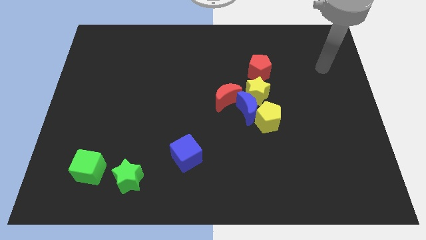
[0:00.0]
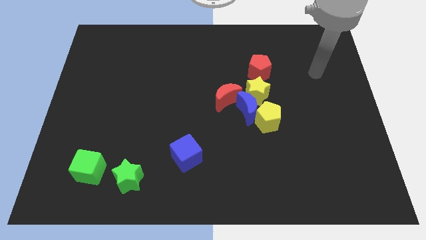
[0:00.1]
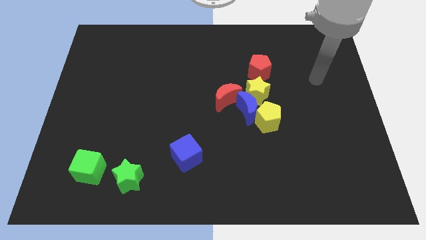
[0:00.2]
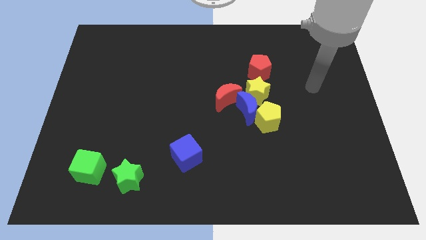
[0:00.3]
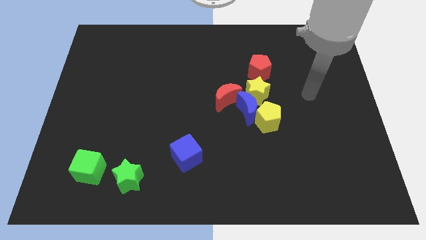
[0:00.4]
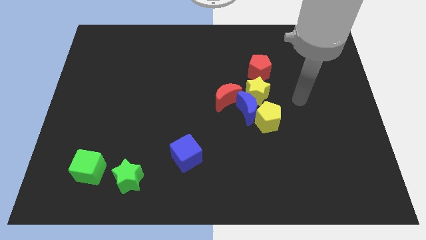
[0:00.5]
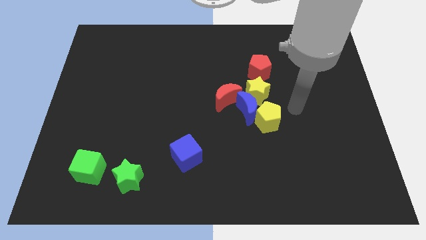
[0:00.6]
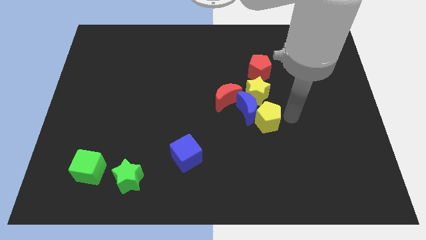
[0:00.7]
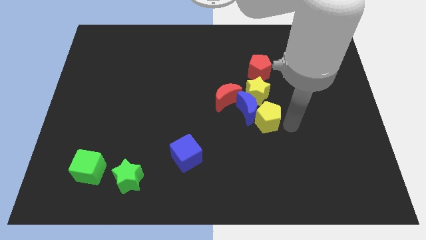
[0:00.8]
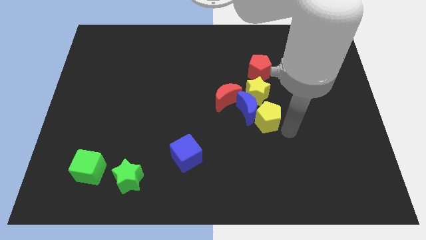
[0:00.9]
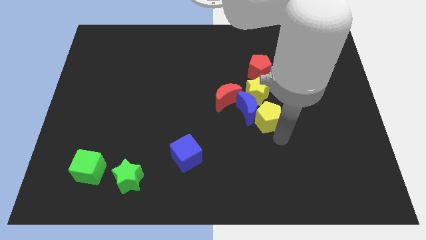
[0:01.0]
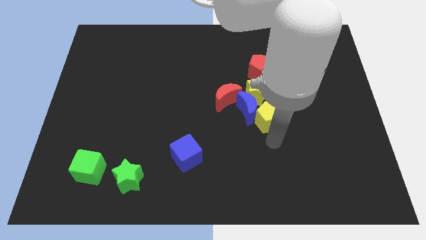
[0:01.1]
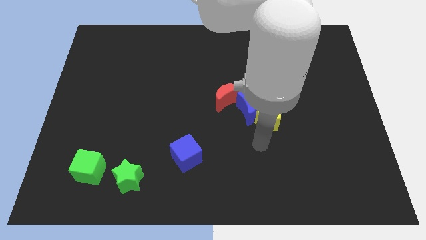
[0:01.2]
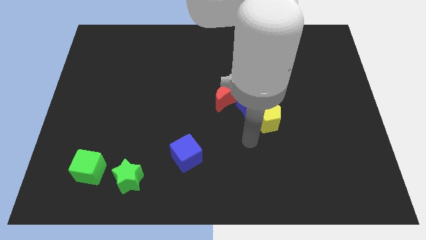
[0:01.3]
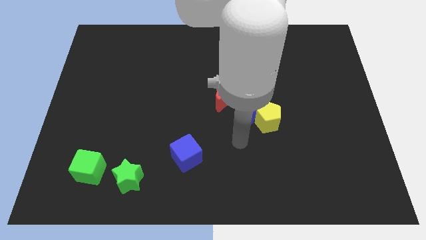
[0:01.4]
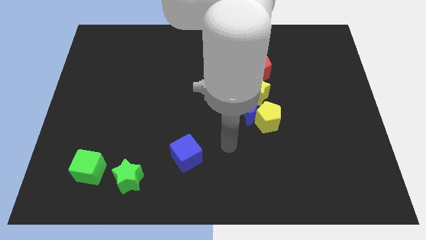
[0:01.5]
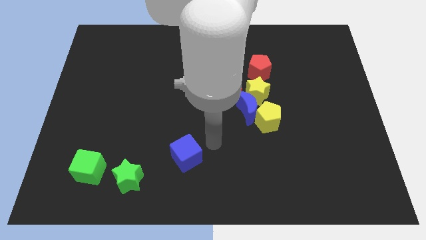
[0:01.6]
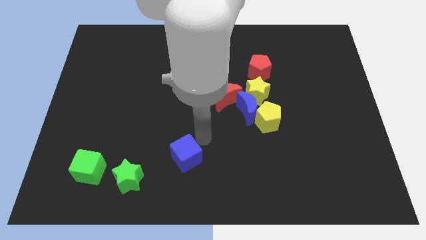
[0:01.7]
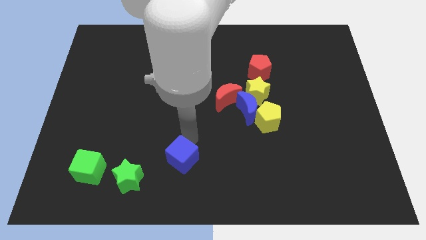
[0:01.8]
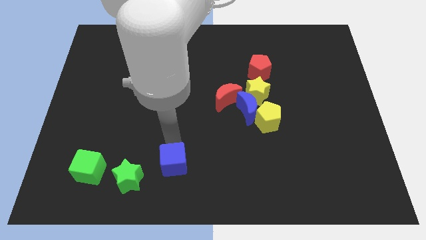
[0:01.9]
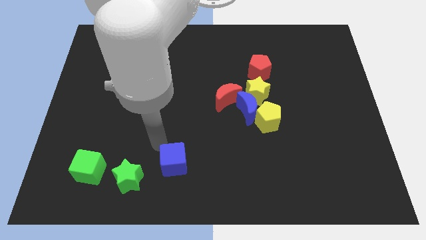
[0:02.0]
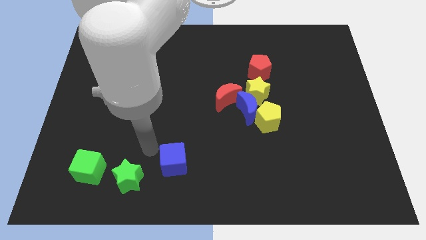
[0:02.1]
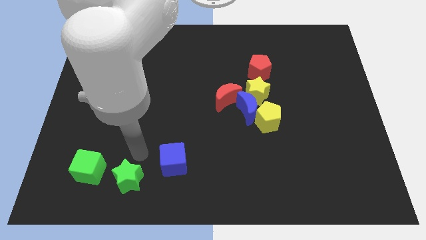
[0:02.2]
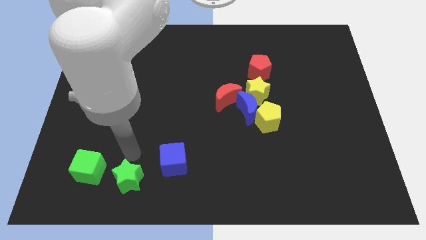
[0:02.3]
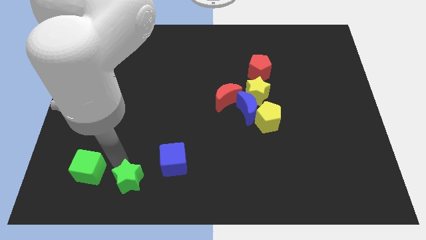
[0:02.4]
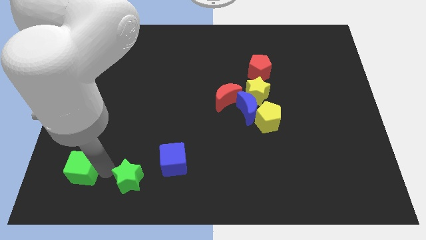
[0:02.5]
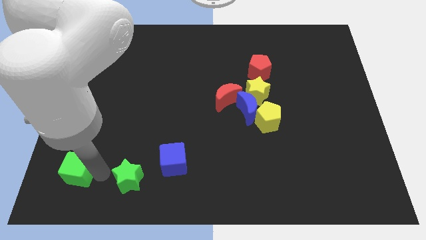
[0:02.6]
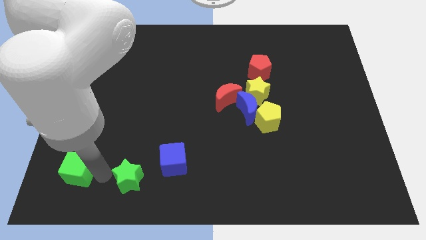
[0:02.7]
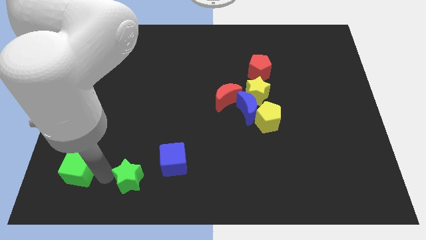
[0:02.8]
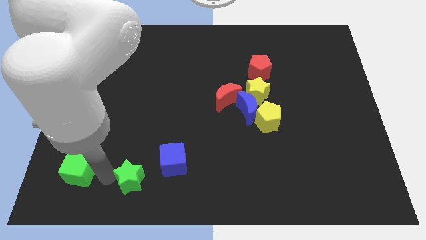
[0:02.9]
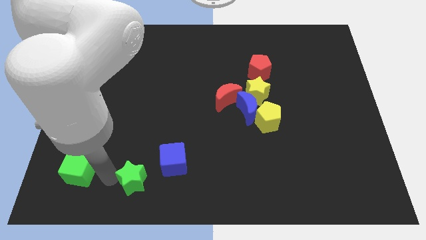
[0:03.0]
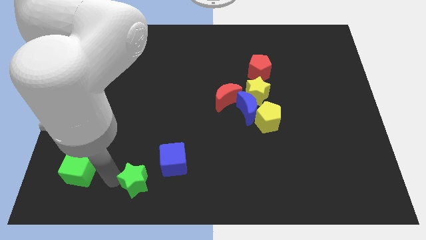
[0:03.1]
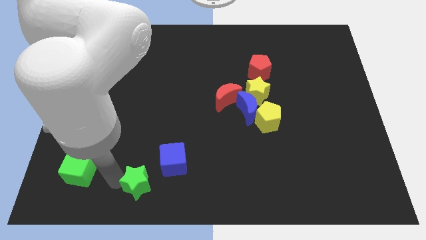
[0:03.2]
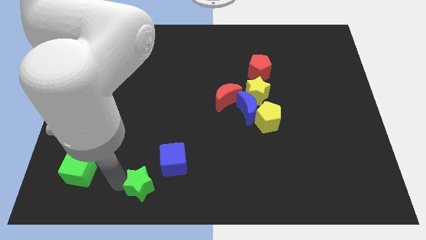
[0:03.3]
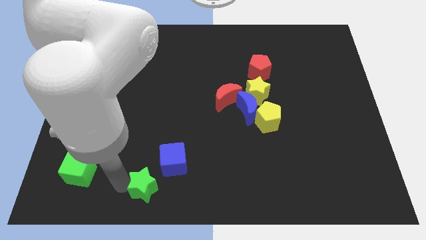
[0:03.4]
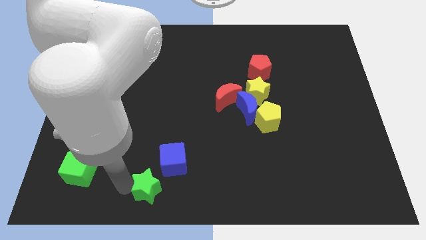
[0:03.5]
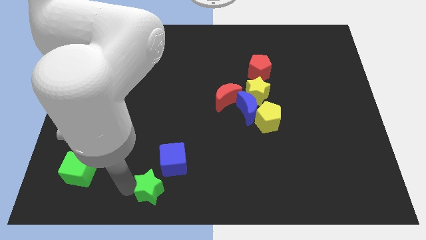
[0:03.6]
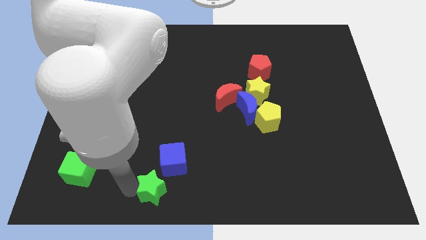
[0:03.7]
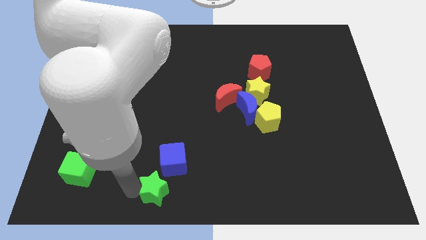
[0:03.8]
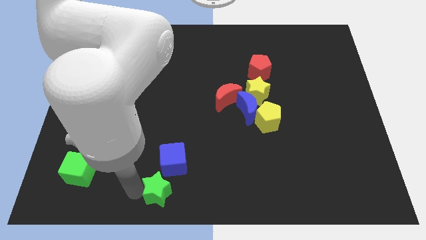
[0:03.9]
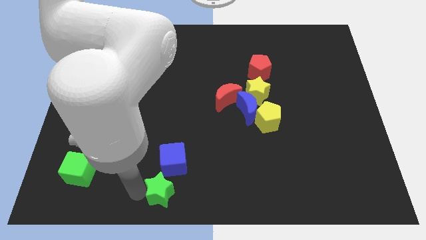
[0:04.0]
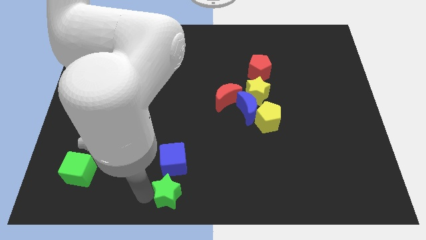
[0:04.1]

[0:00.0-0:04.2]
move the green star to the right a little

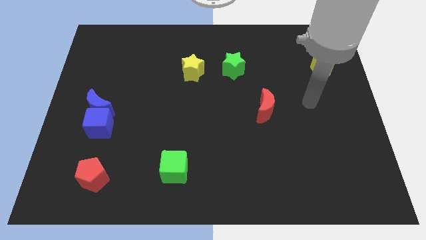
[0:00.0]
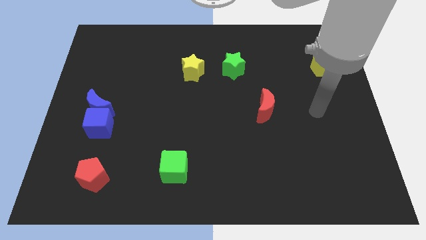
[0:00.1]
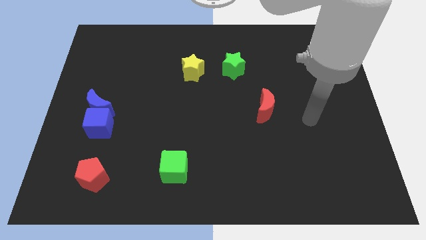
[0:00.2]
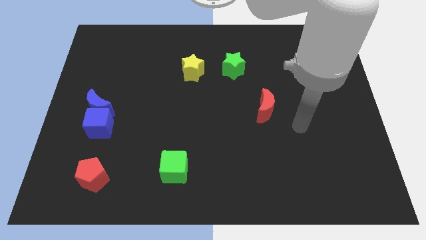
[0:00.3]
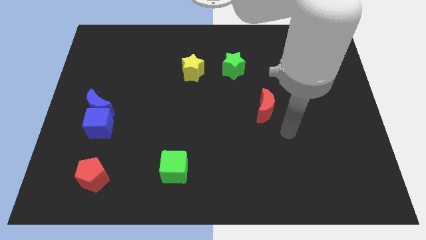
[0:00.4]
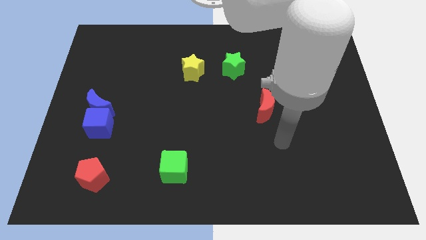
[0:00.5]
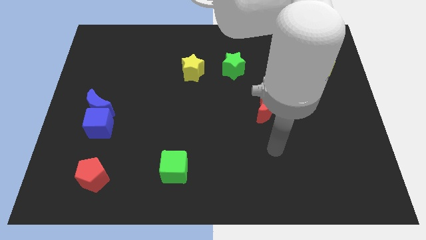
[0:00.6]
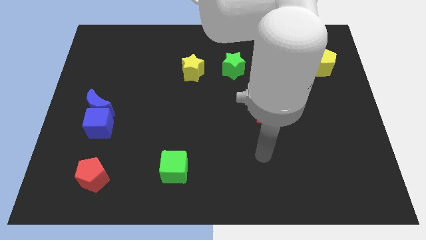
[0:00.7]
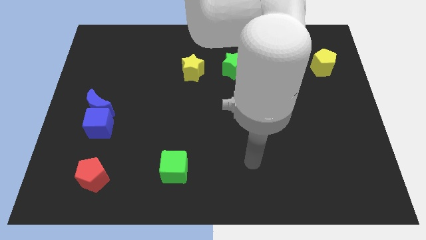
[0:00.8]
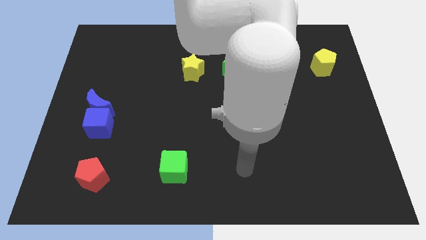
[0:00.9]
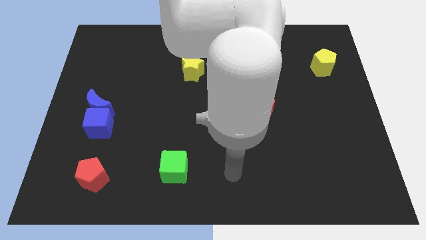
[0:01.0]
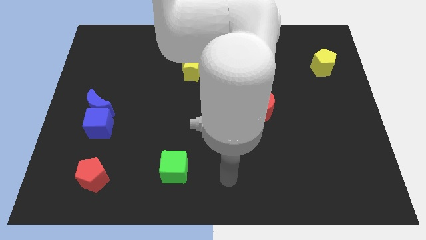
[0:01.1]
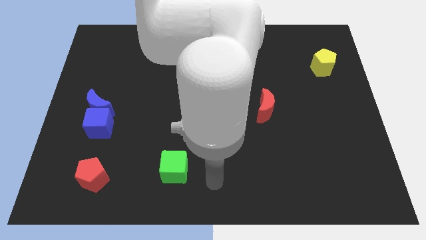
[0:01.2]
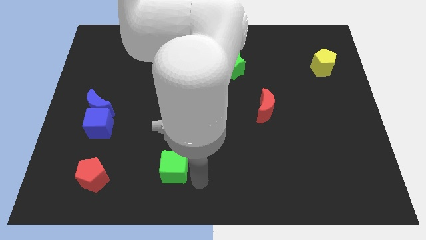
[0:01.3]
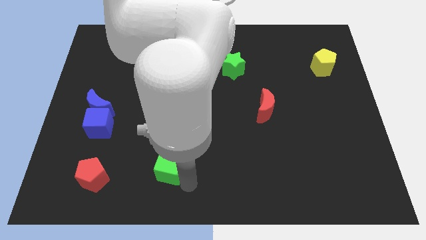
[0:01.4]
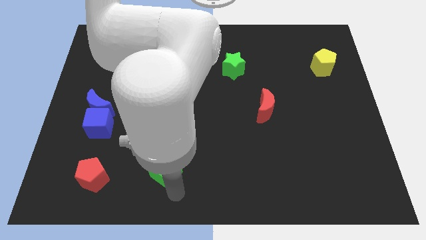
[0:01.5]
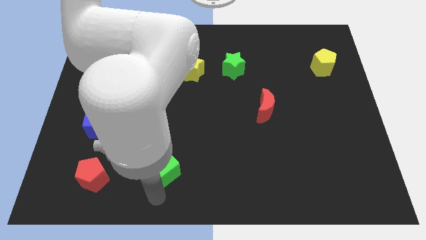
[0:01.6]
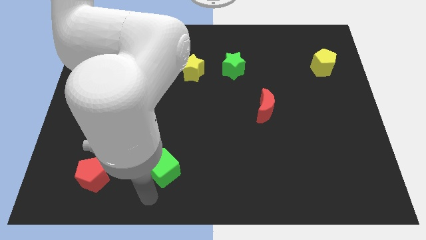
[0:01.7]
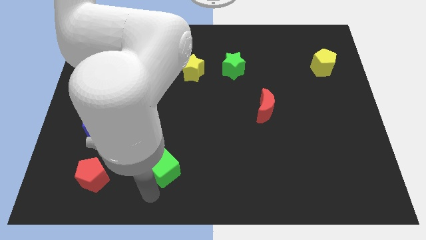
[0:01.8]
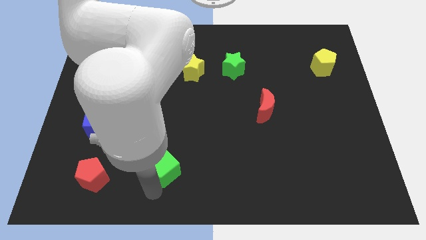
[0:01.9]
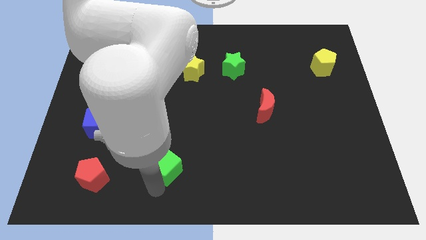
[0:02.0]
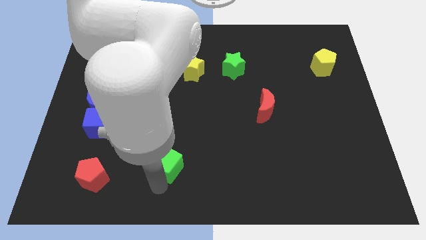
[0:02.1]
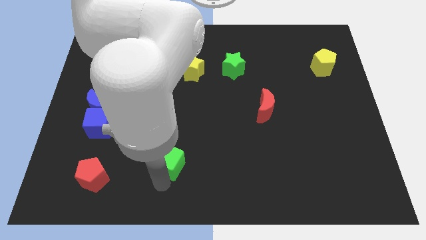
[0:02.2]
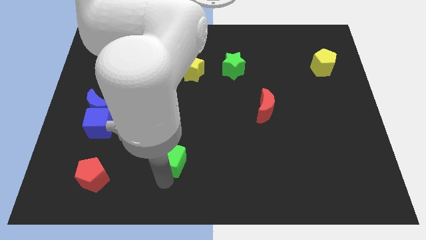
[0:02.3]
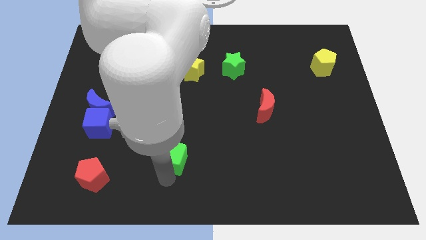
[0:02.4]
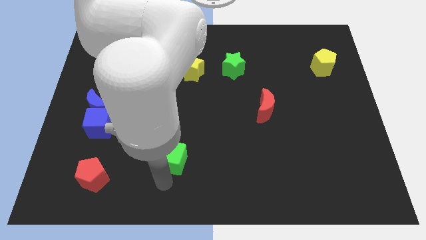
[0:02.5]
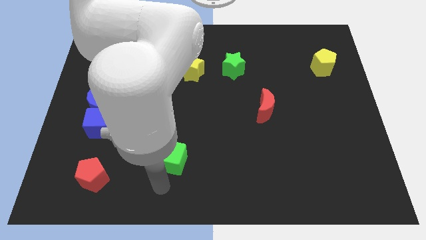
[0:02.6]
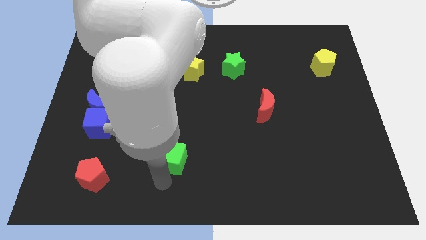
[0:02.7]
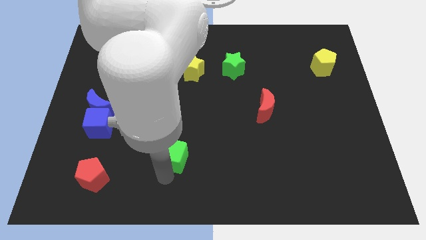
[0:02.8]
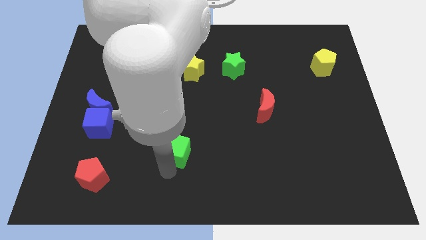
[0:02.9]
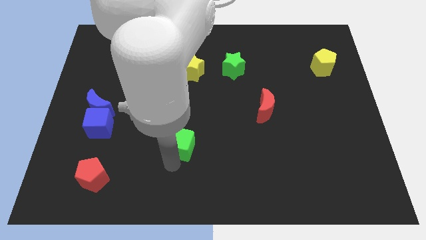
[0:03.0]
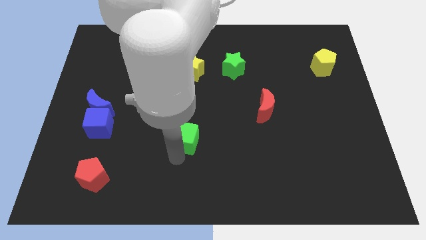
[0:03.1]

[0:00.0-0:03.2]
slide the green cube a bit up

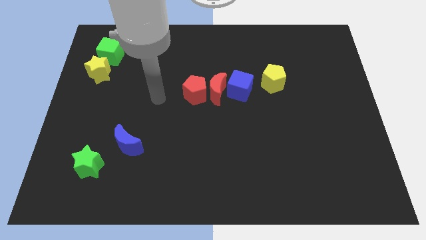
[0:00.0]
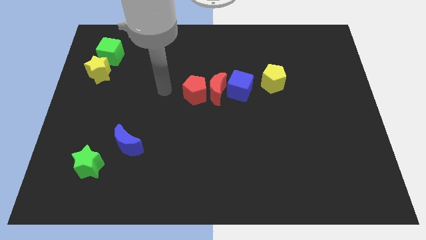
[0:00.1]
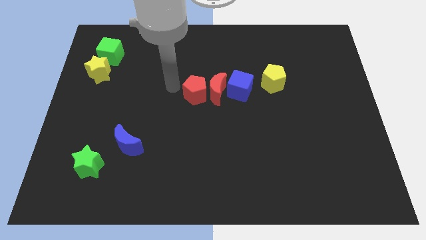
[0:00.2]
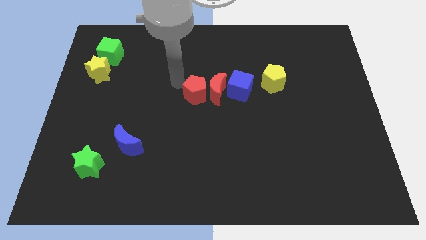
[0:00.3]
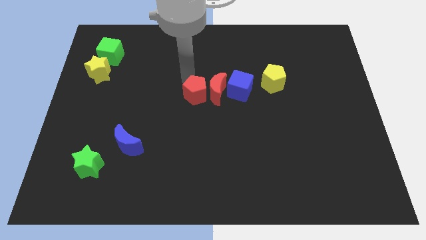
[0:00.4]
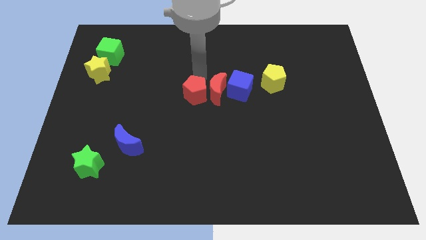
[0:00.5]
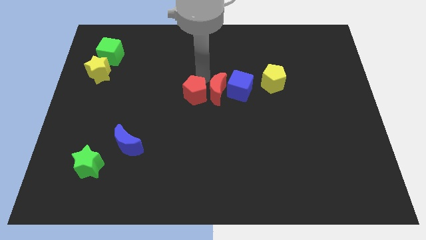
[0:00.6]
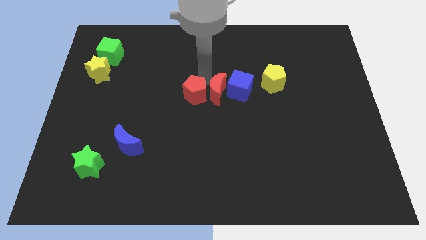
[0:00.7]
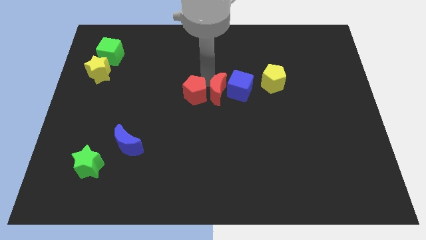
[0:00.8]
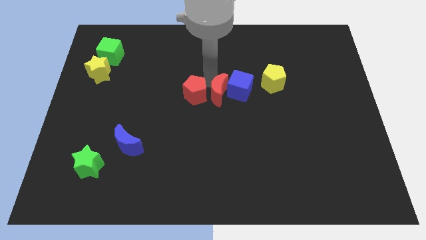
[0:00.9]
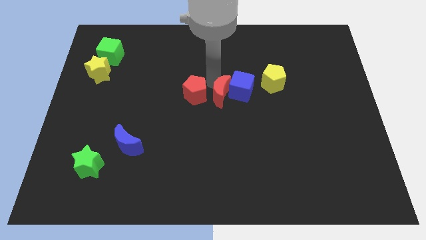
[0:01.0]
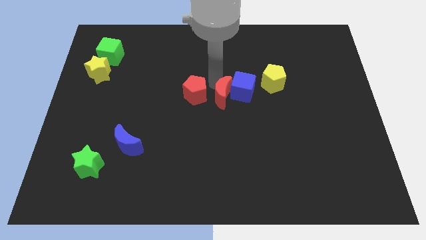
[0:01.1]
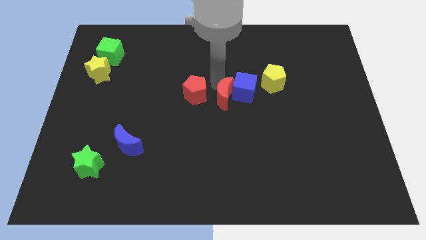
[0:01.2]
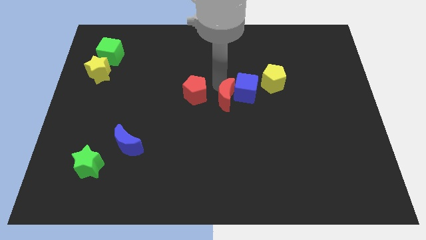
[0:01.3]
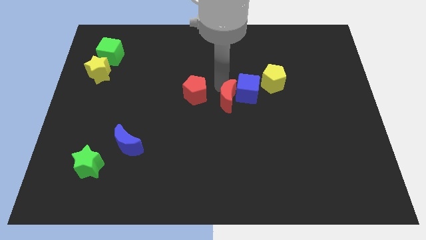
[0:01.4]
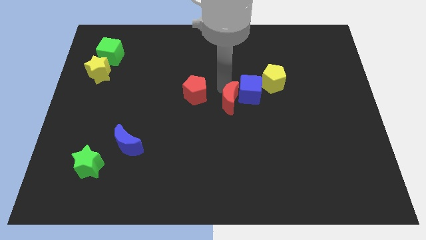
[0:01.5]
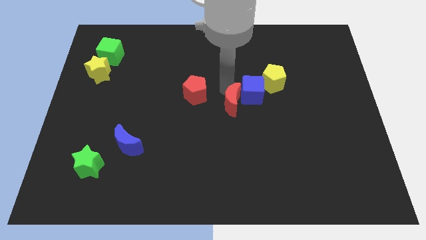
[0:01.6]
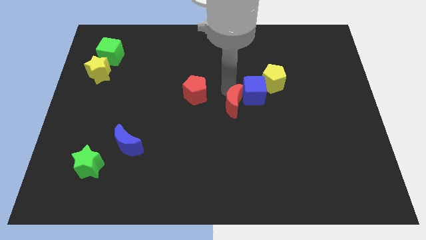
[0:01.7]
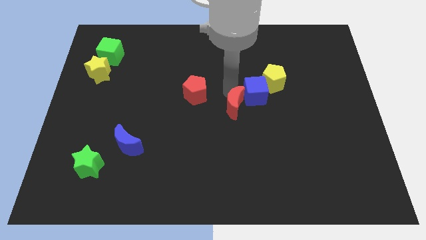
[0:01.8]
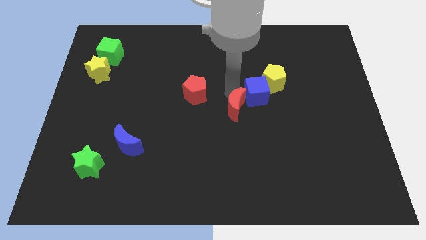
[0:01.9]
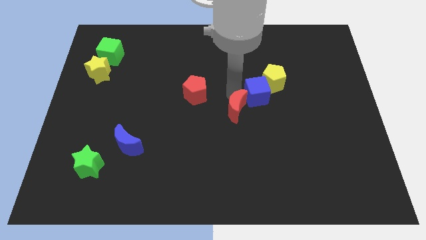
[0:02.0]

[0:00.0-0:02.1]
slightly push the red moon down and to the right diagonally
